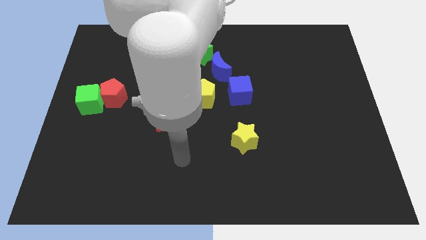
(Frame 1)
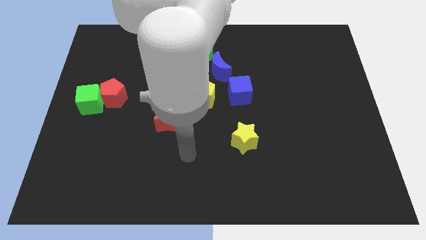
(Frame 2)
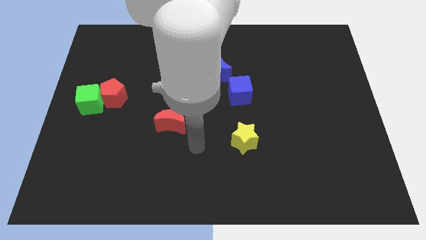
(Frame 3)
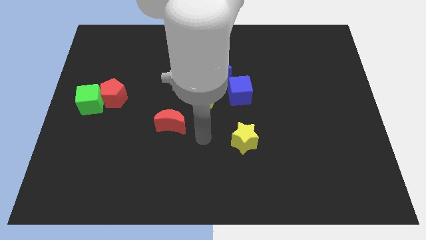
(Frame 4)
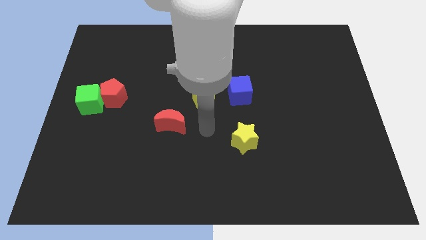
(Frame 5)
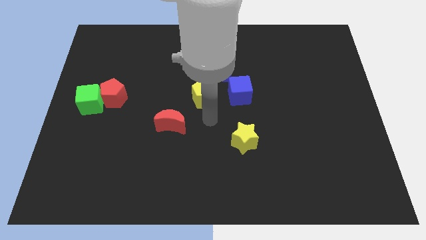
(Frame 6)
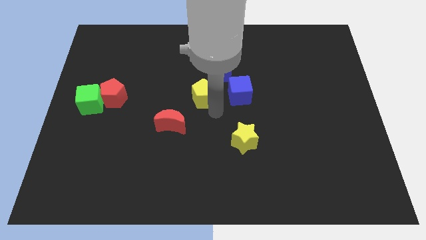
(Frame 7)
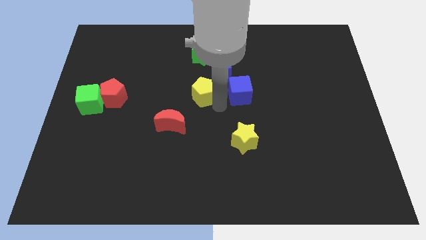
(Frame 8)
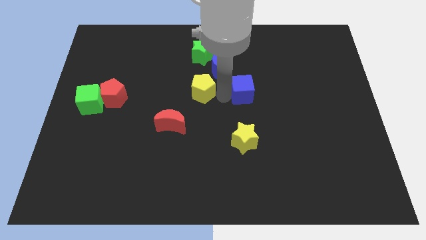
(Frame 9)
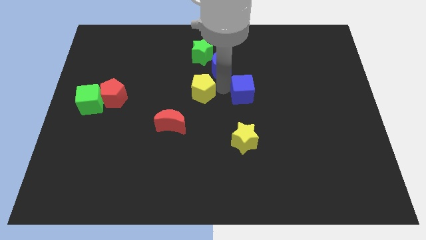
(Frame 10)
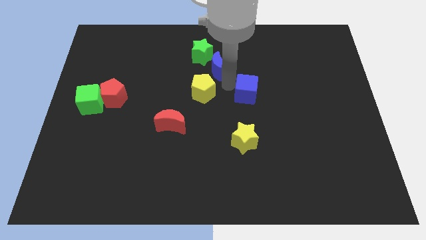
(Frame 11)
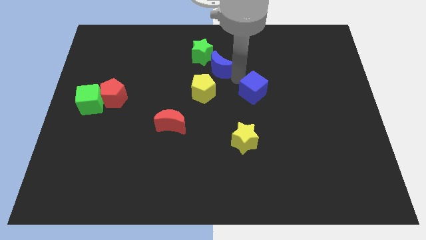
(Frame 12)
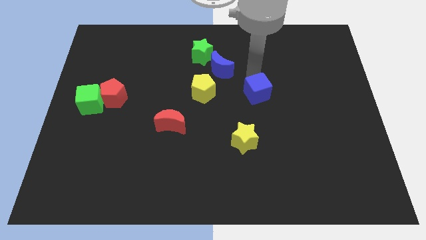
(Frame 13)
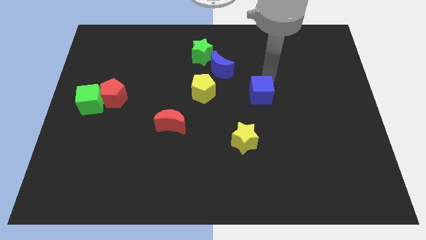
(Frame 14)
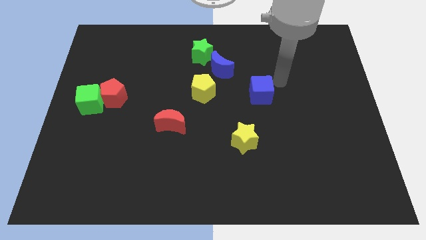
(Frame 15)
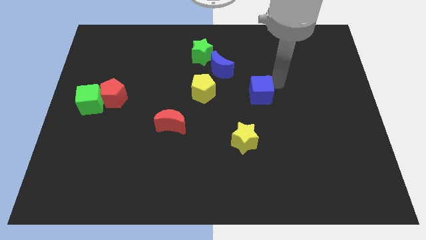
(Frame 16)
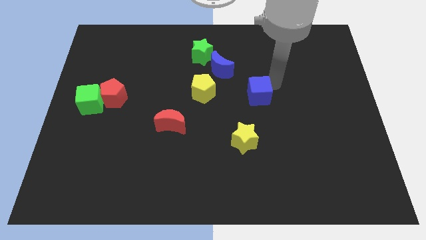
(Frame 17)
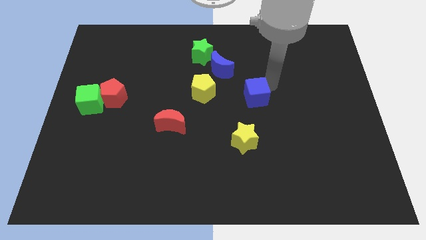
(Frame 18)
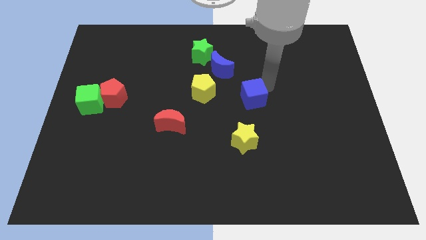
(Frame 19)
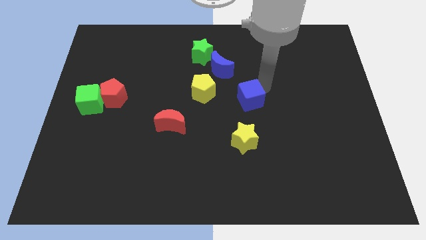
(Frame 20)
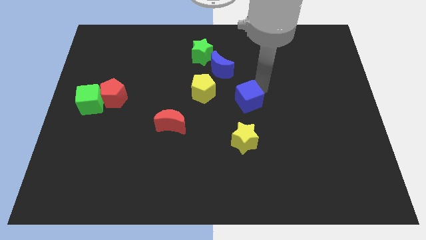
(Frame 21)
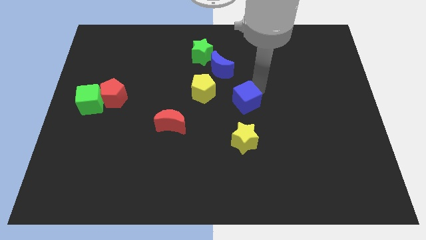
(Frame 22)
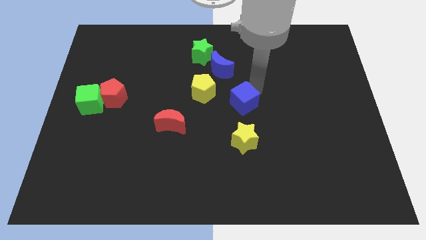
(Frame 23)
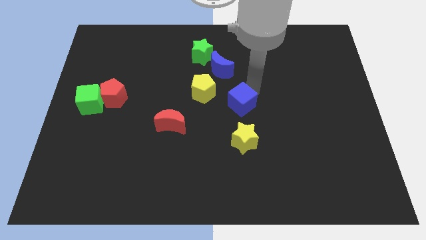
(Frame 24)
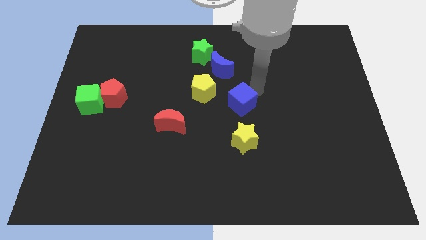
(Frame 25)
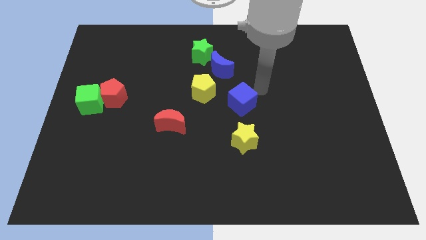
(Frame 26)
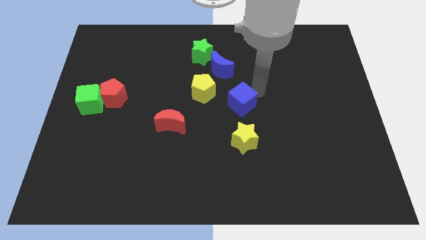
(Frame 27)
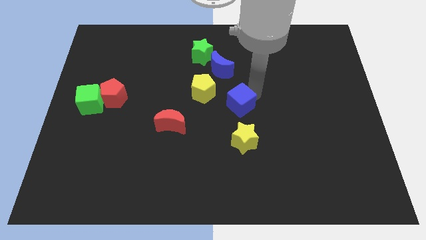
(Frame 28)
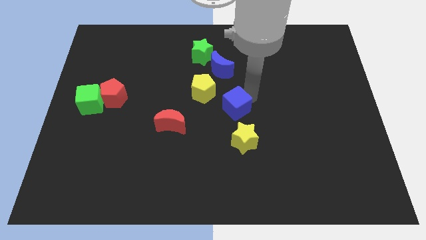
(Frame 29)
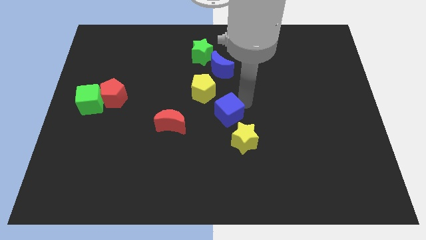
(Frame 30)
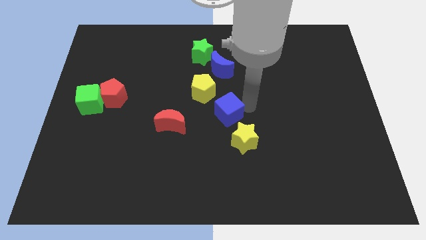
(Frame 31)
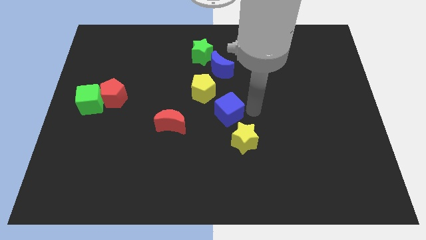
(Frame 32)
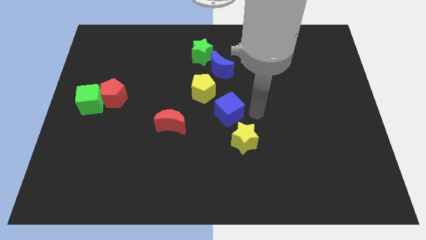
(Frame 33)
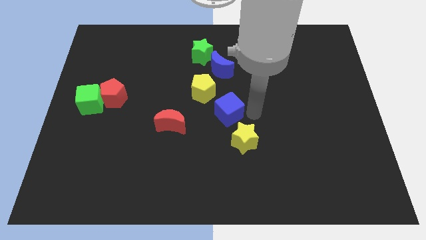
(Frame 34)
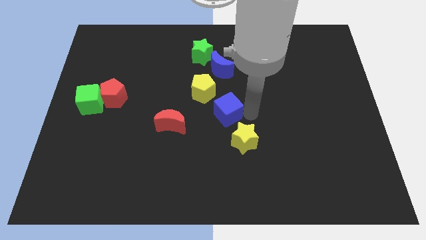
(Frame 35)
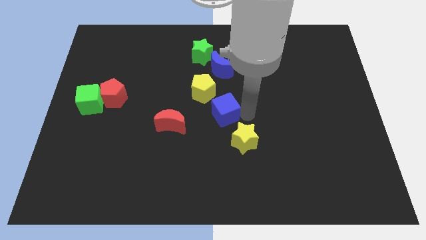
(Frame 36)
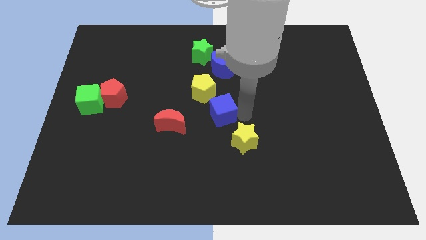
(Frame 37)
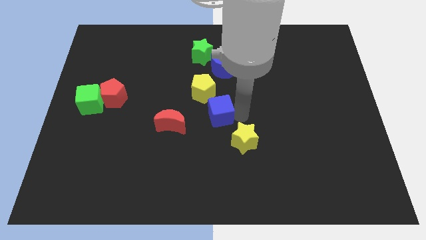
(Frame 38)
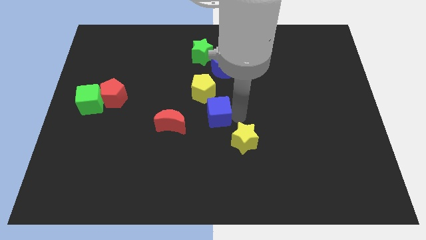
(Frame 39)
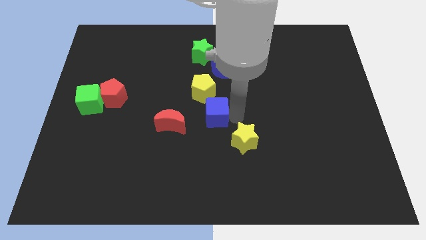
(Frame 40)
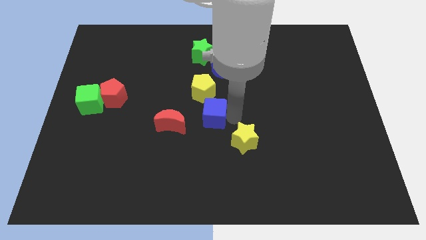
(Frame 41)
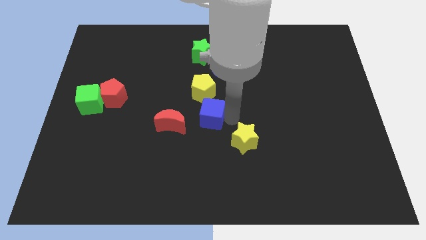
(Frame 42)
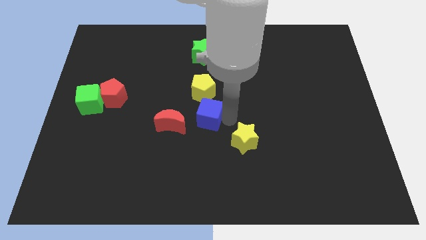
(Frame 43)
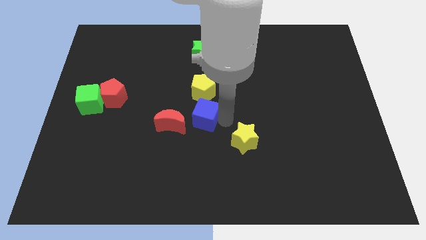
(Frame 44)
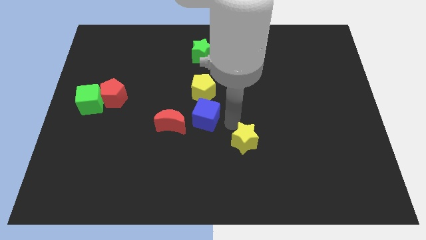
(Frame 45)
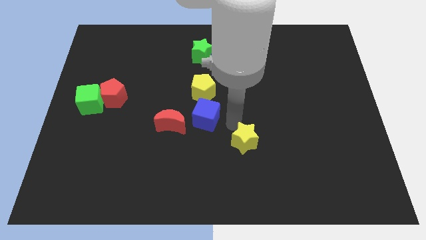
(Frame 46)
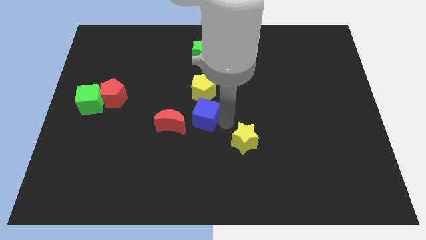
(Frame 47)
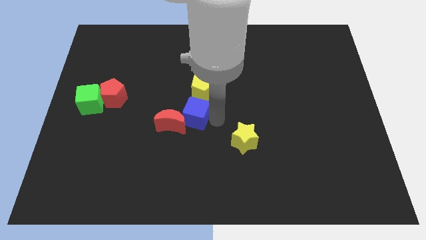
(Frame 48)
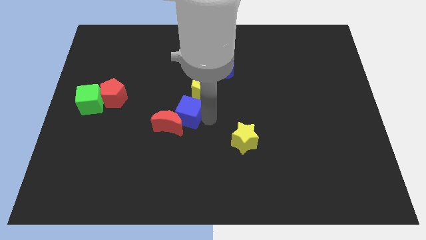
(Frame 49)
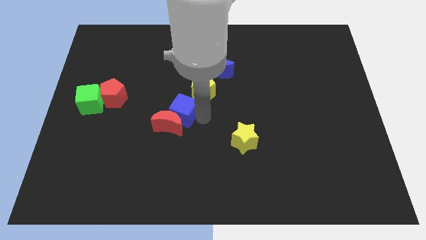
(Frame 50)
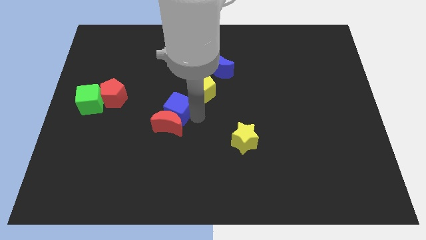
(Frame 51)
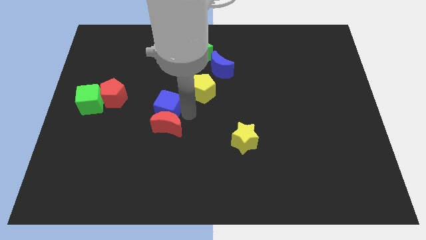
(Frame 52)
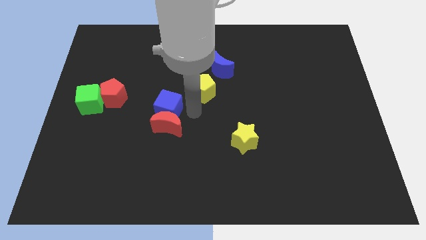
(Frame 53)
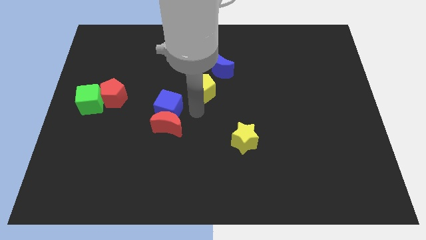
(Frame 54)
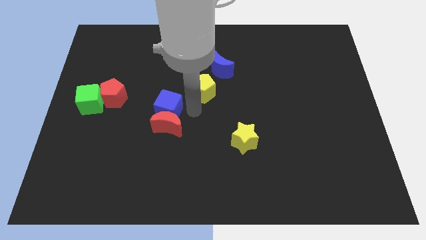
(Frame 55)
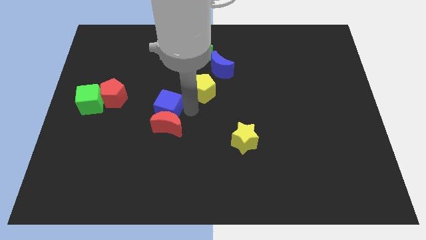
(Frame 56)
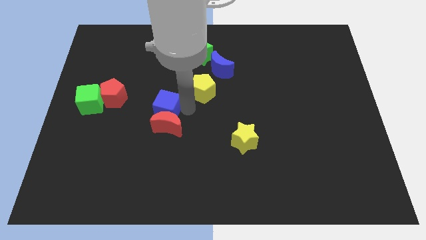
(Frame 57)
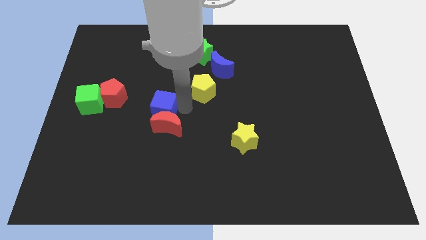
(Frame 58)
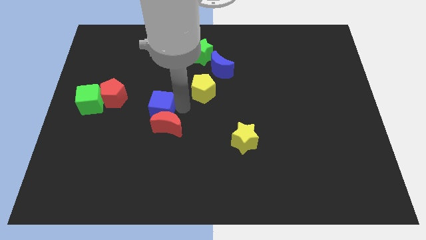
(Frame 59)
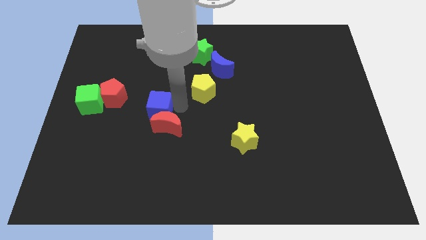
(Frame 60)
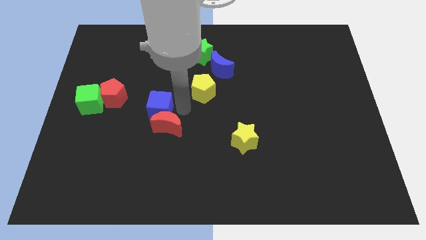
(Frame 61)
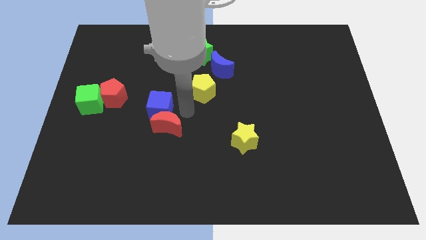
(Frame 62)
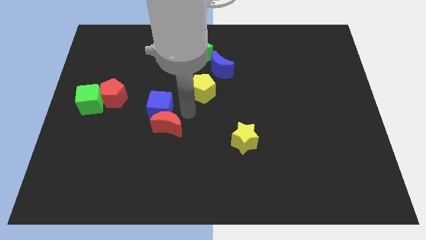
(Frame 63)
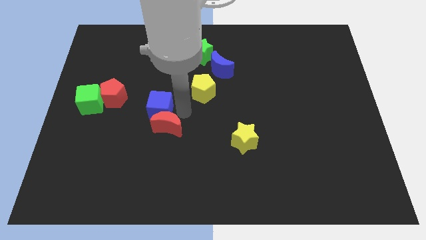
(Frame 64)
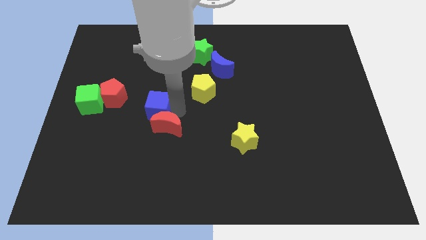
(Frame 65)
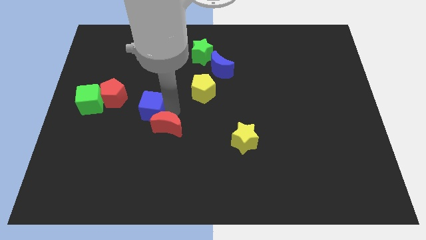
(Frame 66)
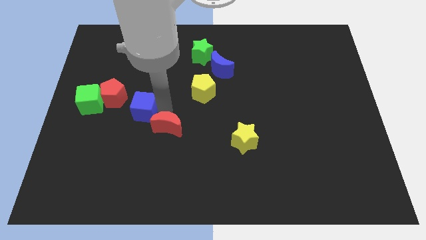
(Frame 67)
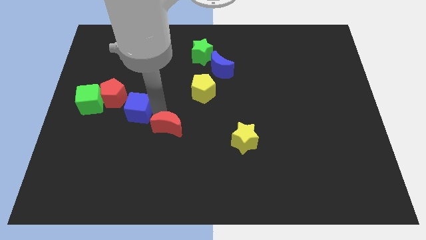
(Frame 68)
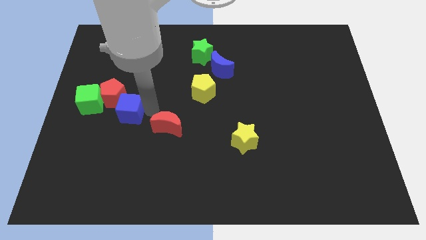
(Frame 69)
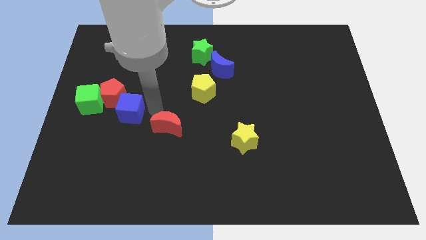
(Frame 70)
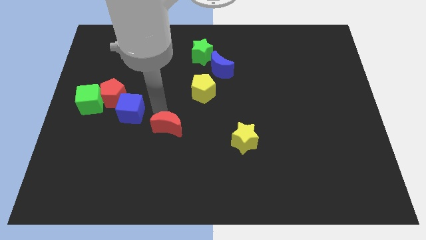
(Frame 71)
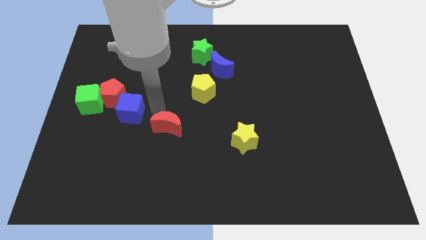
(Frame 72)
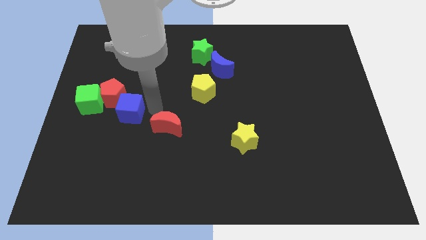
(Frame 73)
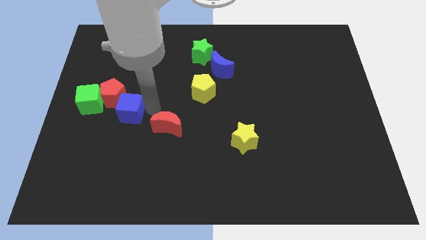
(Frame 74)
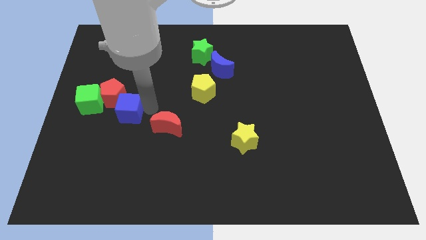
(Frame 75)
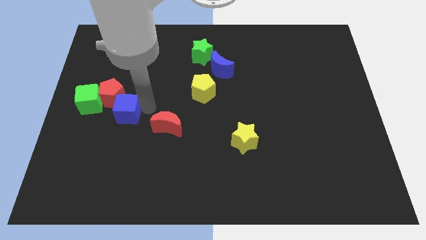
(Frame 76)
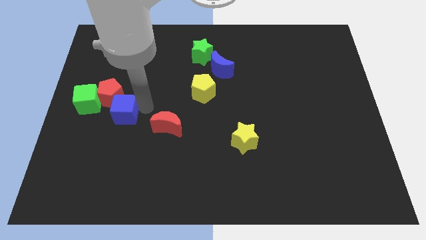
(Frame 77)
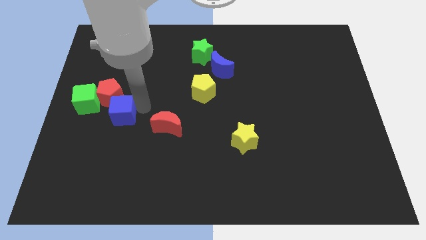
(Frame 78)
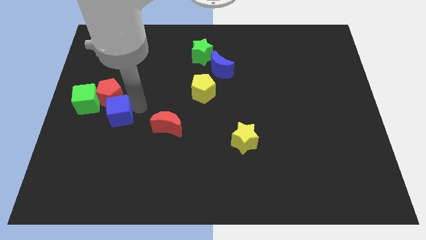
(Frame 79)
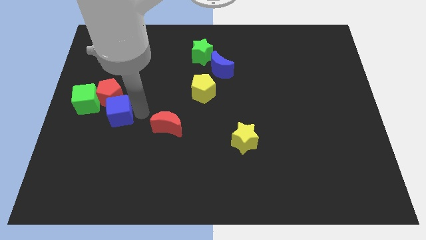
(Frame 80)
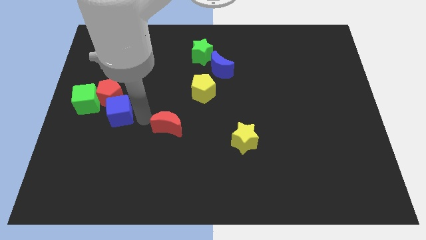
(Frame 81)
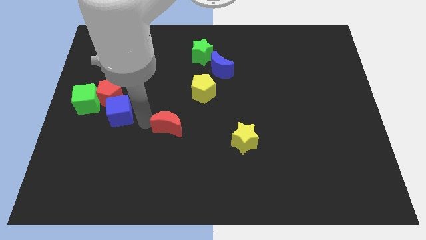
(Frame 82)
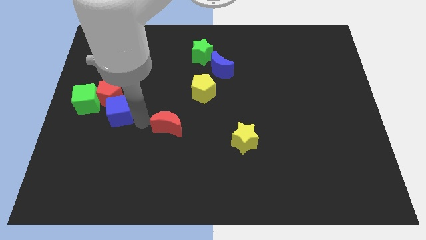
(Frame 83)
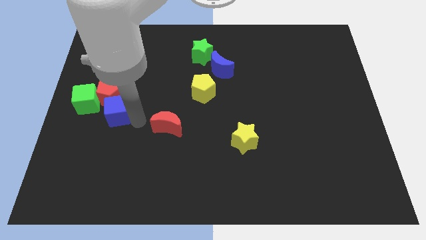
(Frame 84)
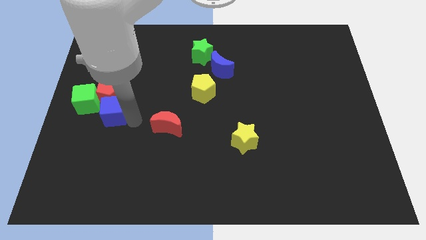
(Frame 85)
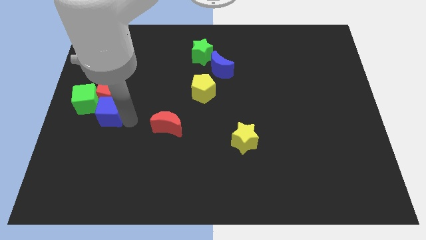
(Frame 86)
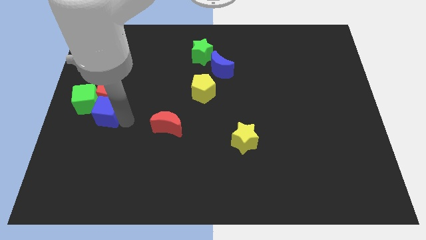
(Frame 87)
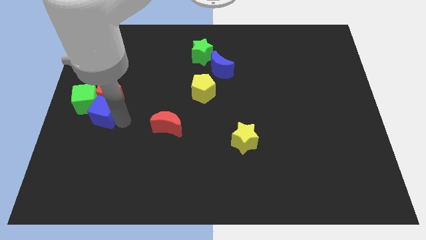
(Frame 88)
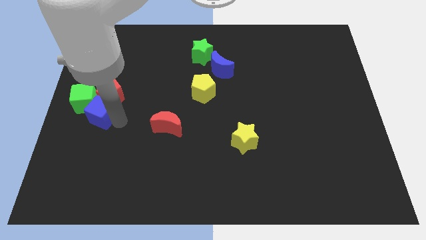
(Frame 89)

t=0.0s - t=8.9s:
slide the blue cube towards the green cube
